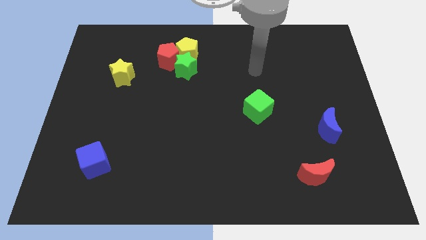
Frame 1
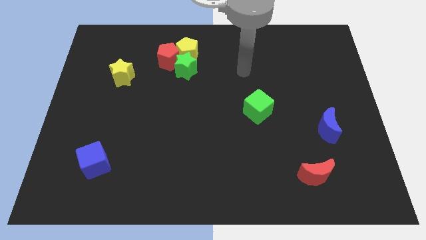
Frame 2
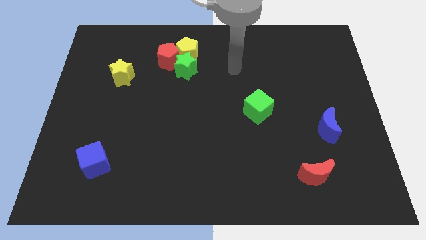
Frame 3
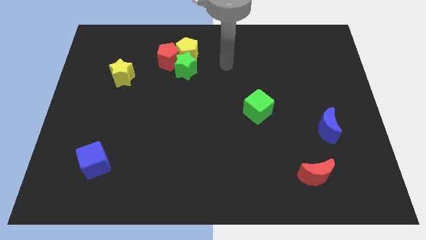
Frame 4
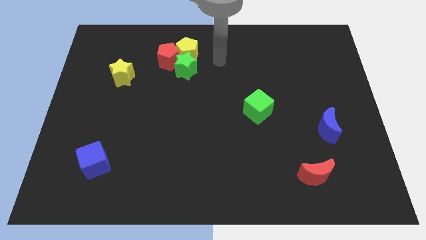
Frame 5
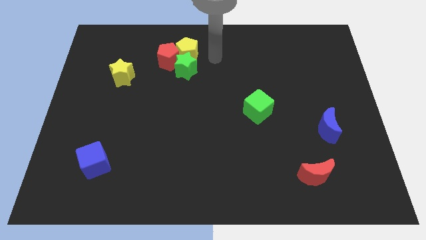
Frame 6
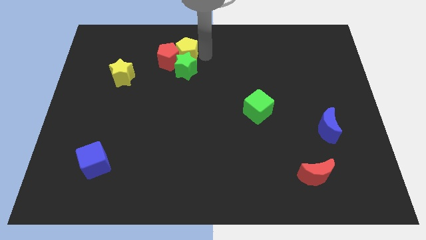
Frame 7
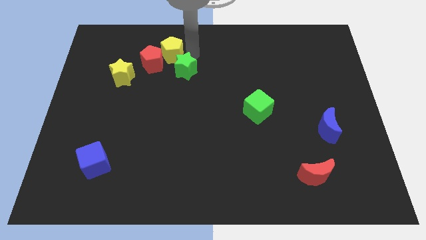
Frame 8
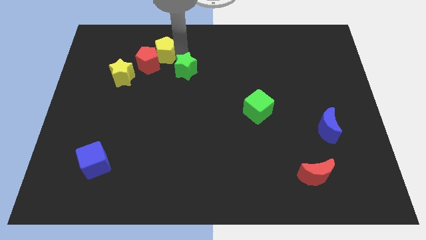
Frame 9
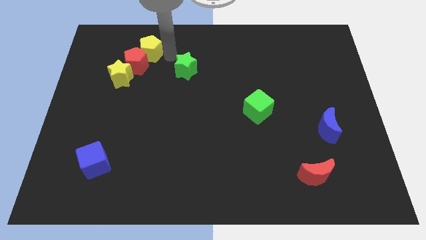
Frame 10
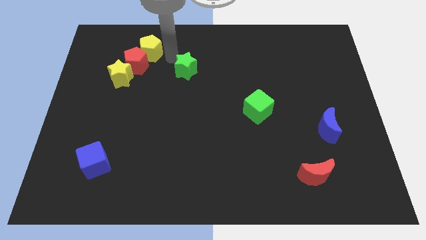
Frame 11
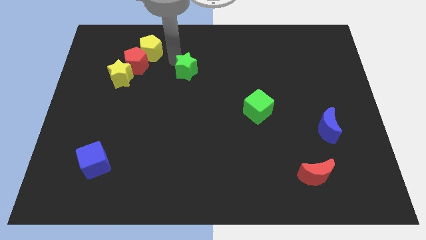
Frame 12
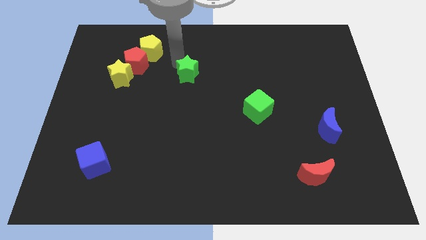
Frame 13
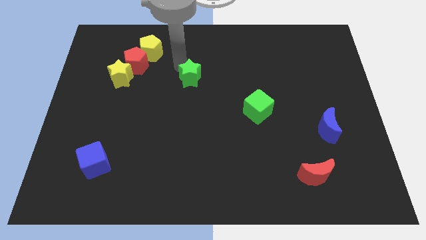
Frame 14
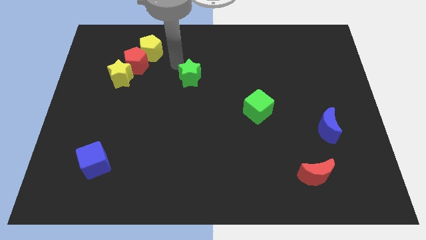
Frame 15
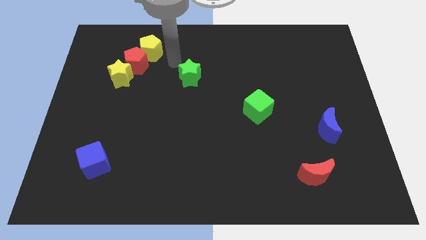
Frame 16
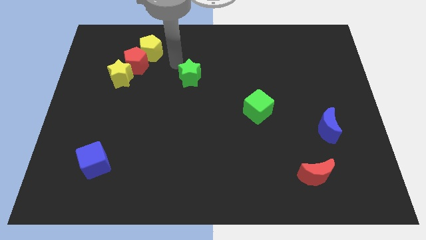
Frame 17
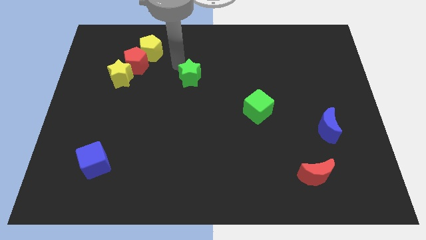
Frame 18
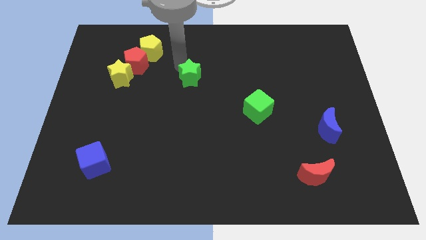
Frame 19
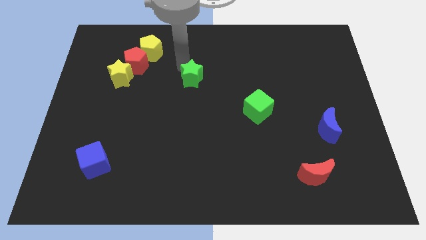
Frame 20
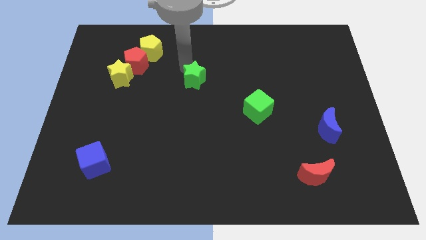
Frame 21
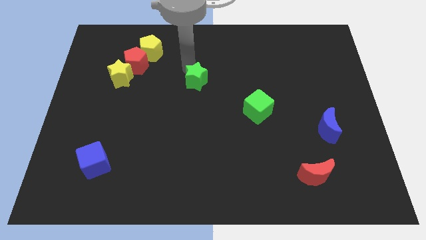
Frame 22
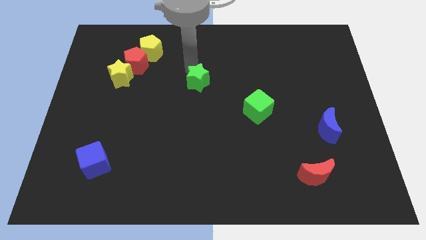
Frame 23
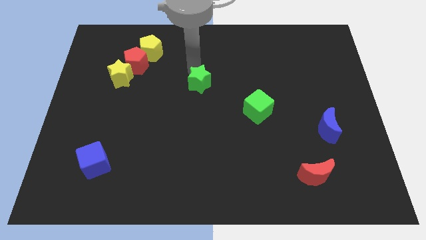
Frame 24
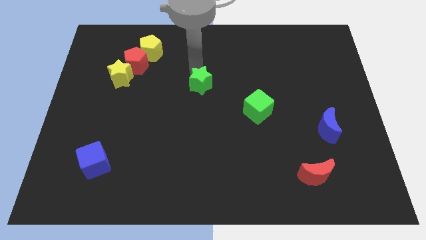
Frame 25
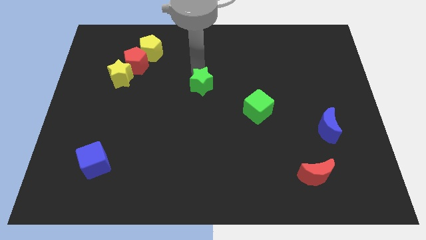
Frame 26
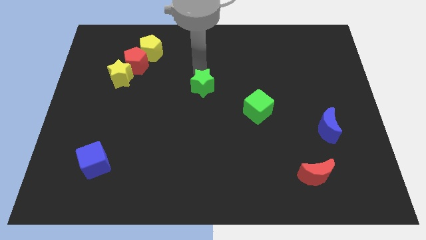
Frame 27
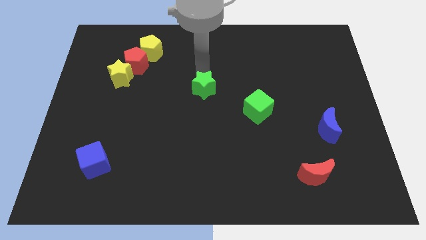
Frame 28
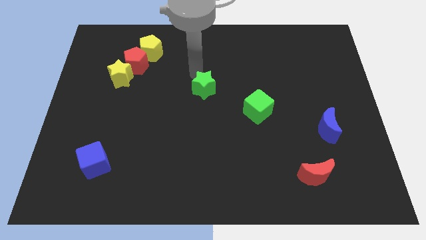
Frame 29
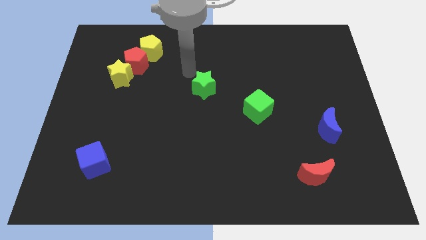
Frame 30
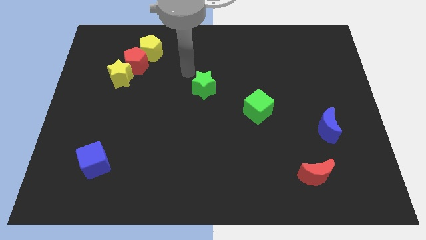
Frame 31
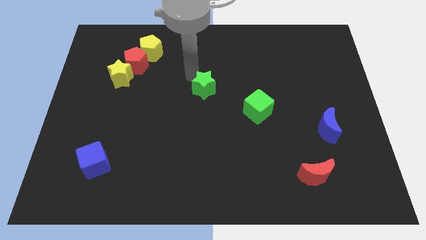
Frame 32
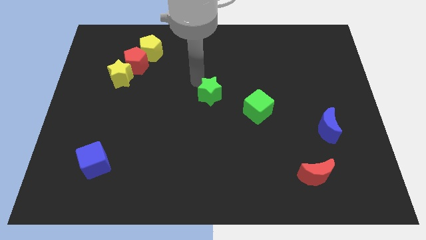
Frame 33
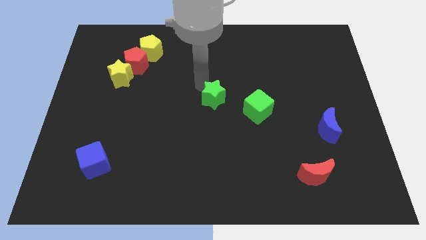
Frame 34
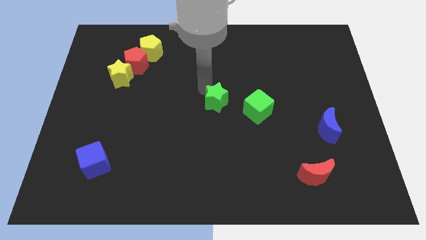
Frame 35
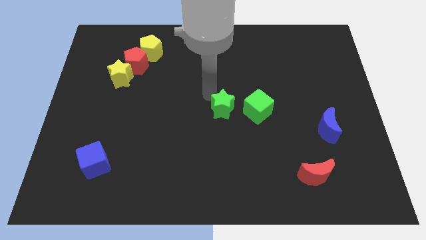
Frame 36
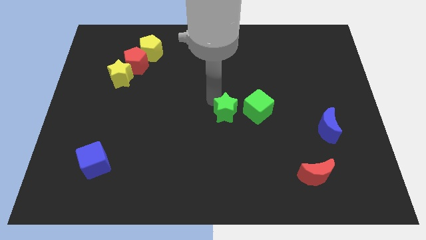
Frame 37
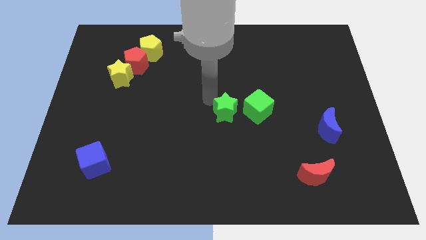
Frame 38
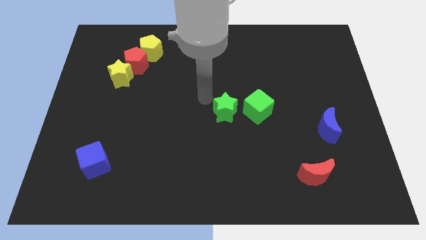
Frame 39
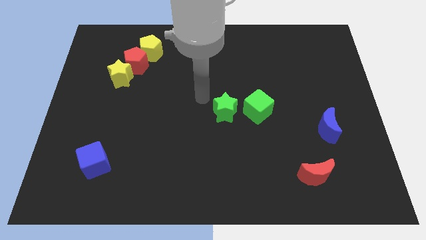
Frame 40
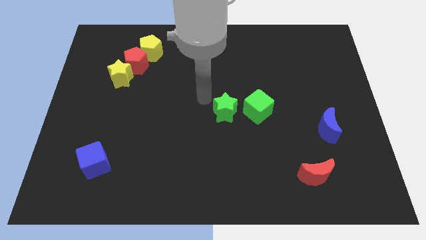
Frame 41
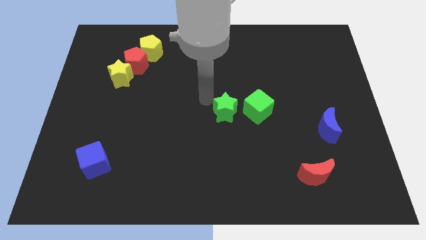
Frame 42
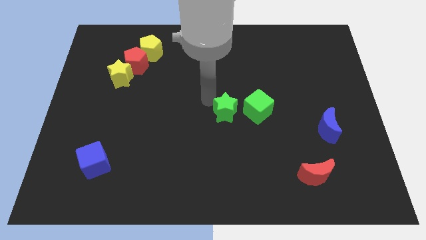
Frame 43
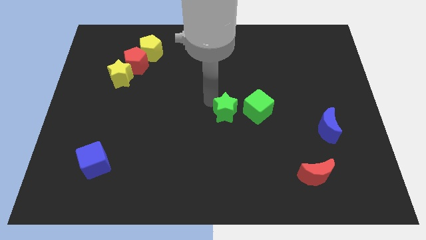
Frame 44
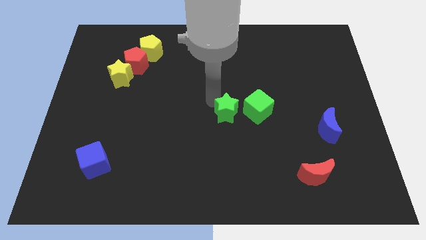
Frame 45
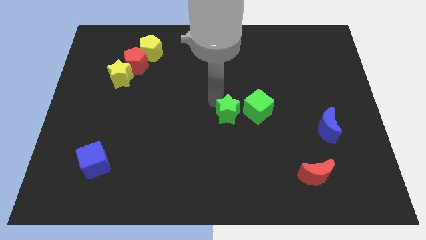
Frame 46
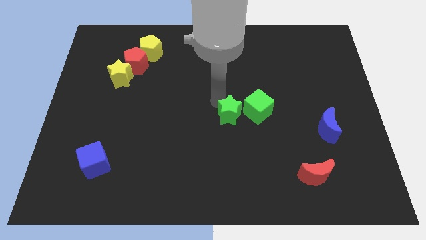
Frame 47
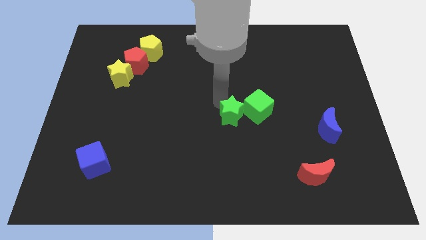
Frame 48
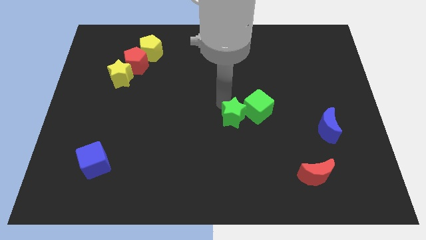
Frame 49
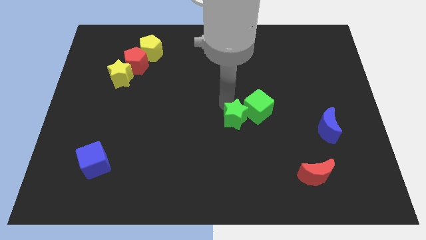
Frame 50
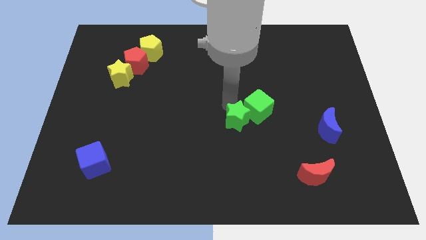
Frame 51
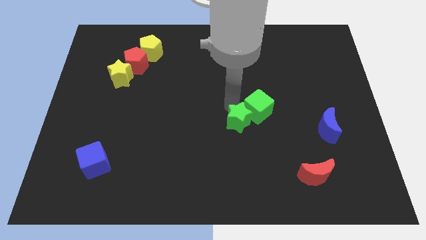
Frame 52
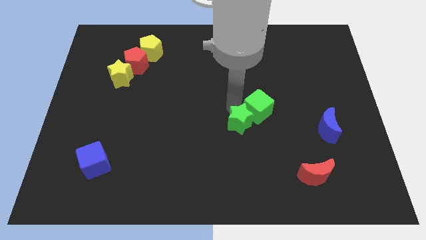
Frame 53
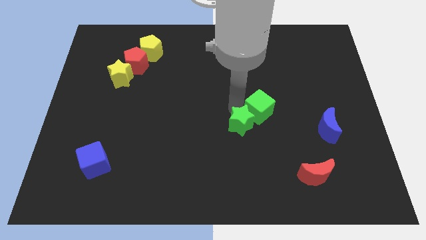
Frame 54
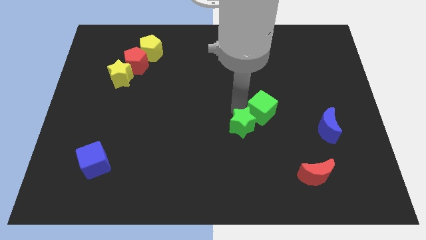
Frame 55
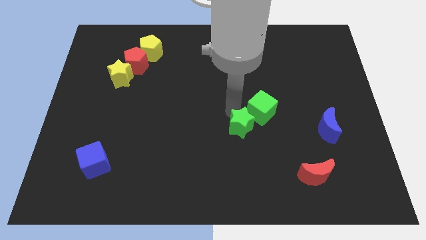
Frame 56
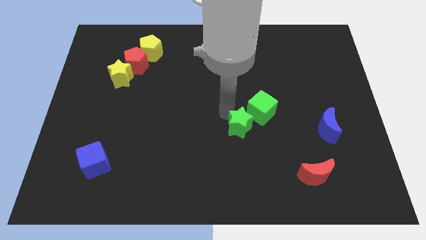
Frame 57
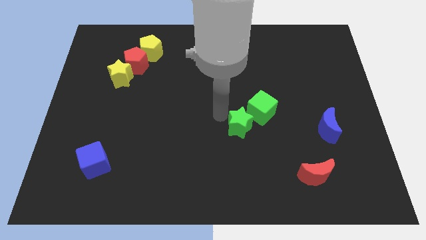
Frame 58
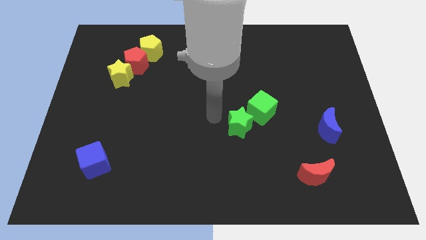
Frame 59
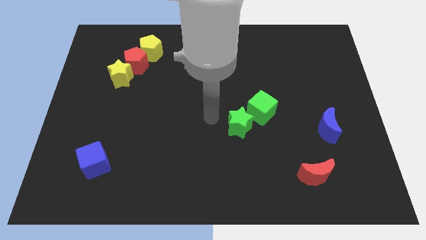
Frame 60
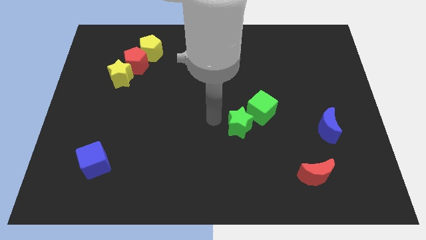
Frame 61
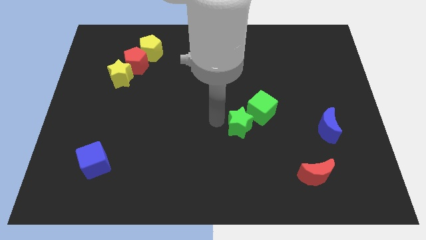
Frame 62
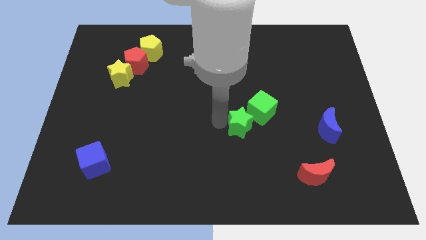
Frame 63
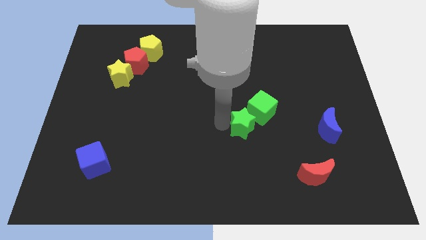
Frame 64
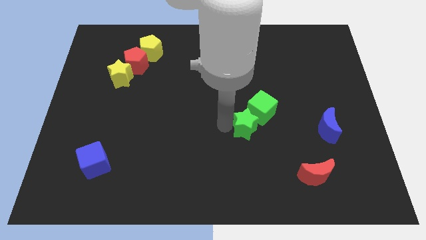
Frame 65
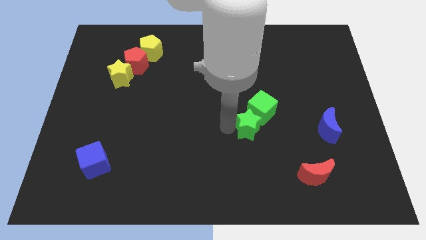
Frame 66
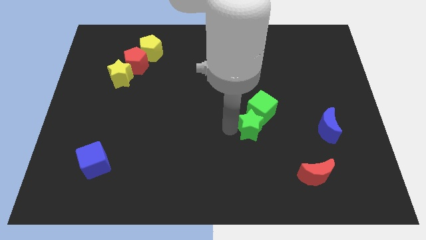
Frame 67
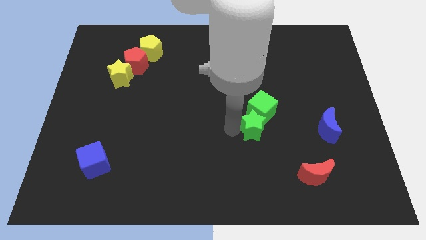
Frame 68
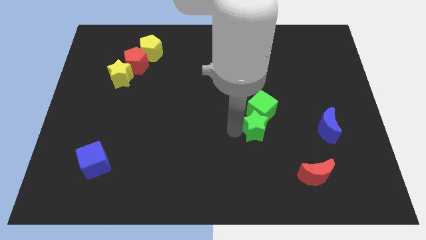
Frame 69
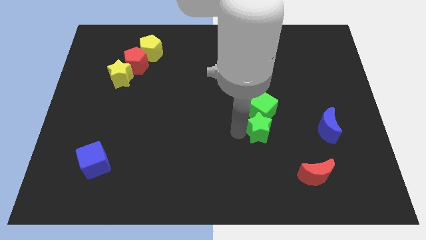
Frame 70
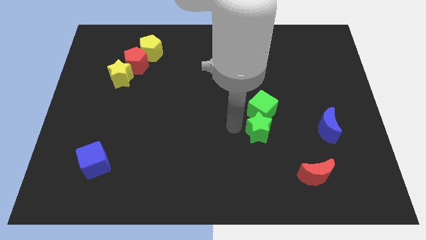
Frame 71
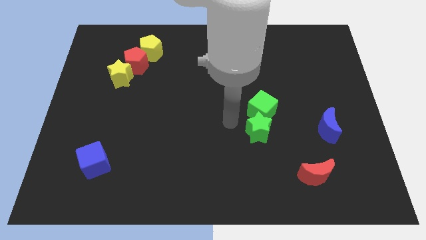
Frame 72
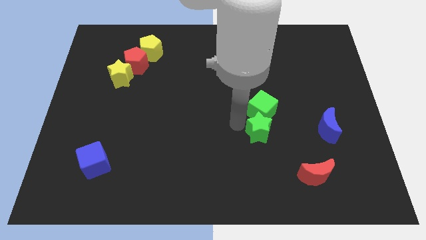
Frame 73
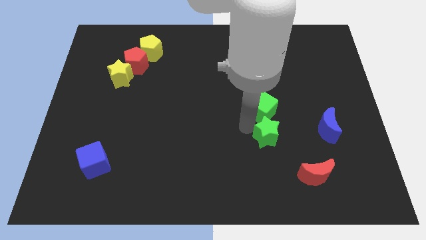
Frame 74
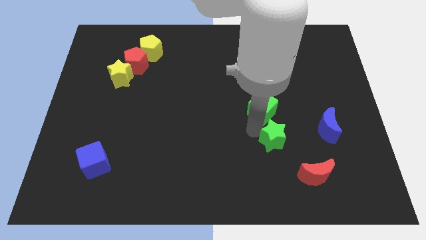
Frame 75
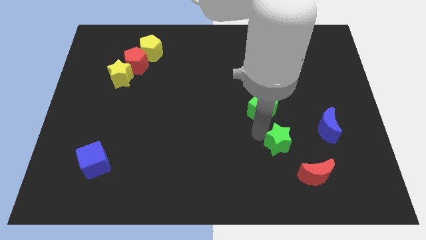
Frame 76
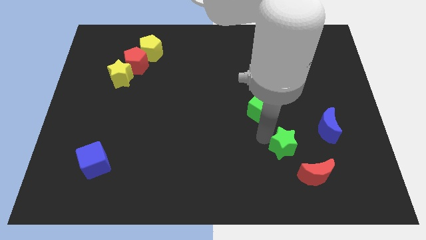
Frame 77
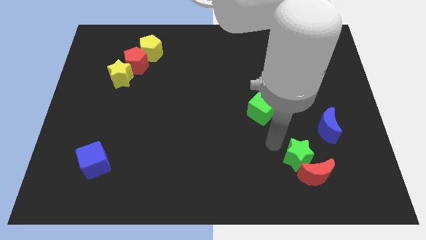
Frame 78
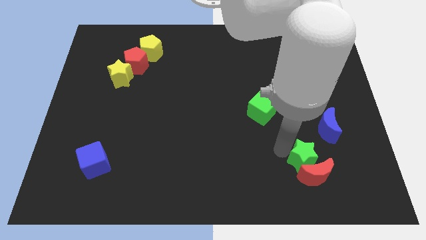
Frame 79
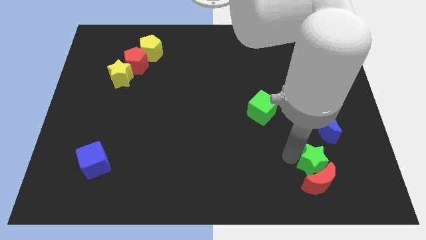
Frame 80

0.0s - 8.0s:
put the green star diagonally up and to the right of the red moon
